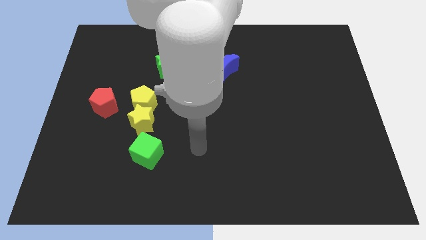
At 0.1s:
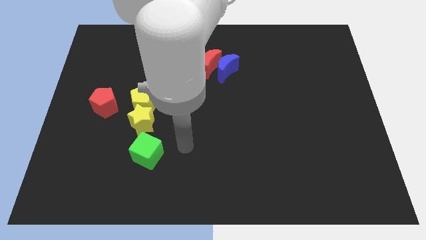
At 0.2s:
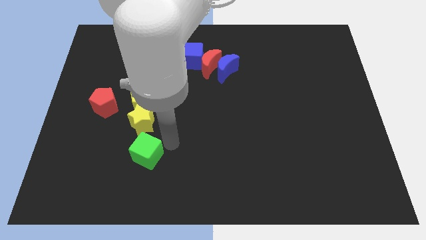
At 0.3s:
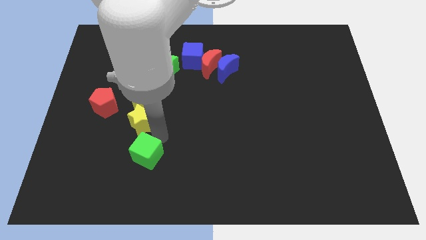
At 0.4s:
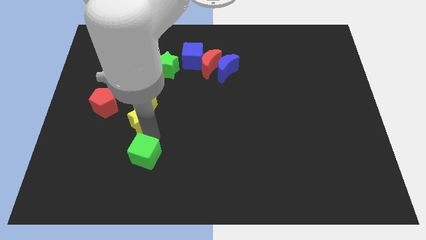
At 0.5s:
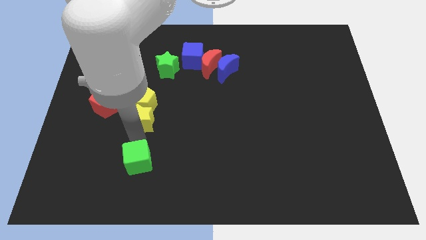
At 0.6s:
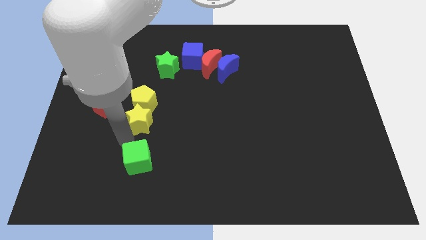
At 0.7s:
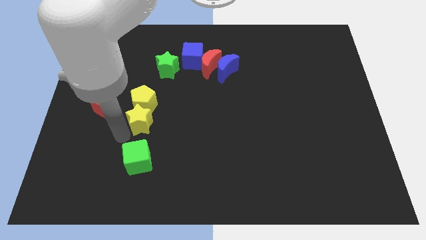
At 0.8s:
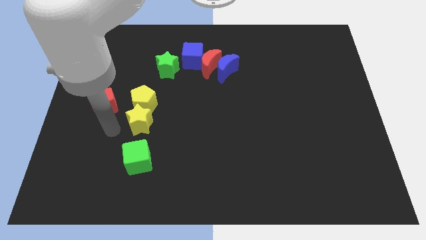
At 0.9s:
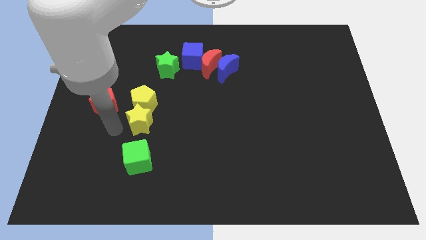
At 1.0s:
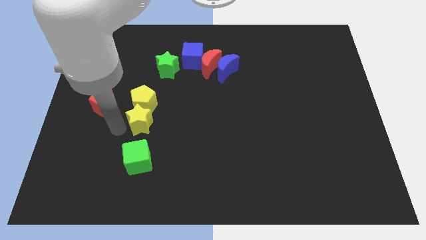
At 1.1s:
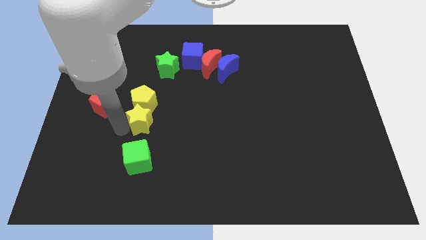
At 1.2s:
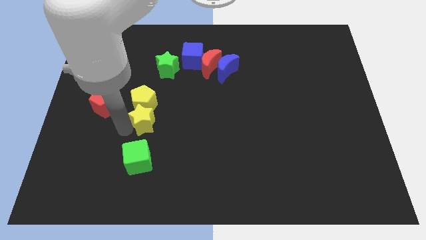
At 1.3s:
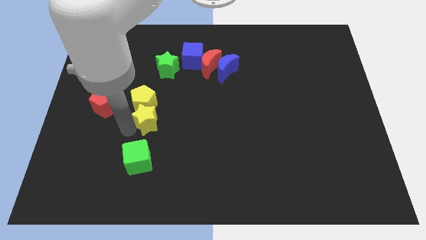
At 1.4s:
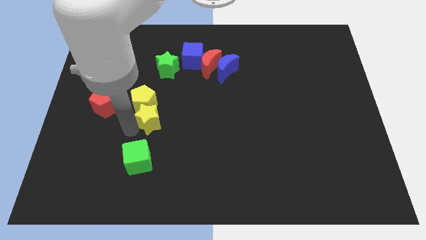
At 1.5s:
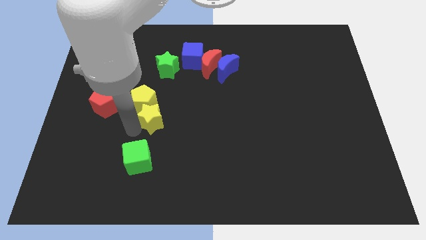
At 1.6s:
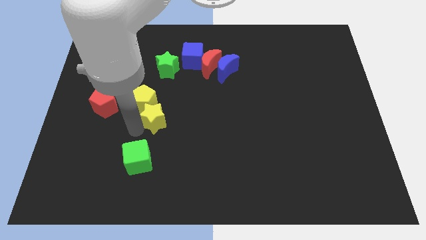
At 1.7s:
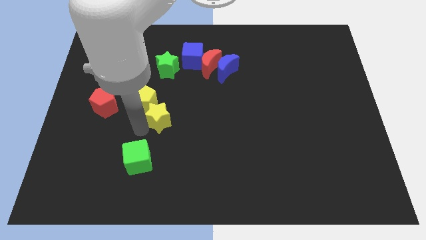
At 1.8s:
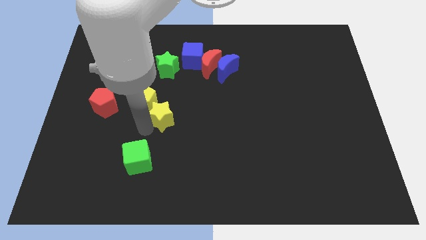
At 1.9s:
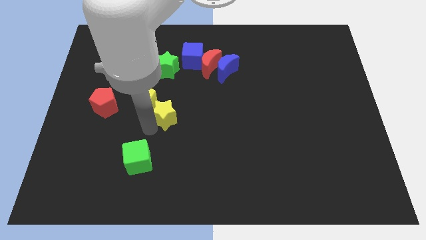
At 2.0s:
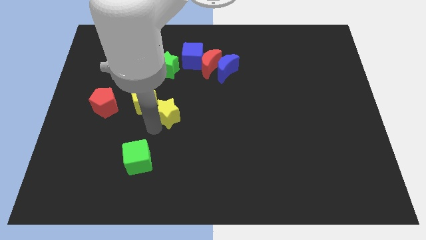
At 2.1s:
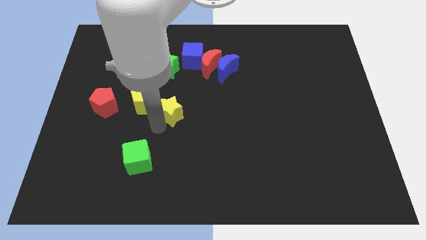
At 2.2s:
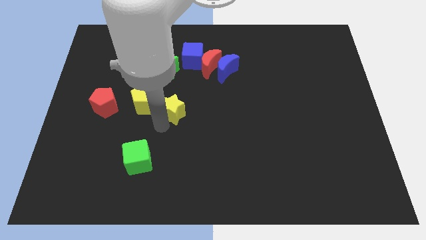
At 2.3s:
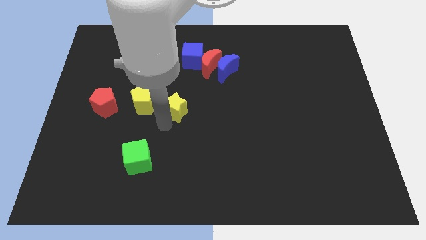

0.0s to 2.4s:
move the yellow star somewhat up and right

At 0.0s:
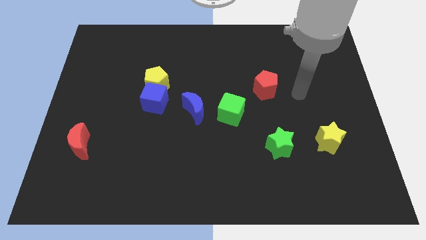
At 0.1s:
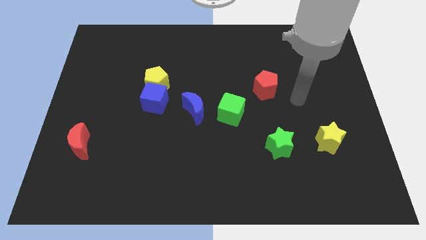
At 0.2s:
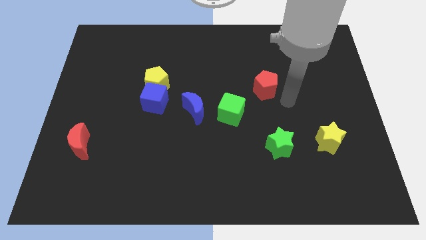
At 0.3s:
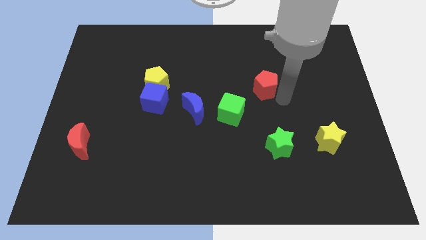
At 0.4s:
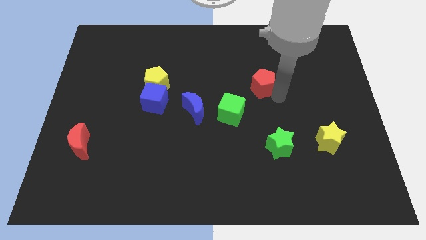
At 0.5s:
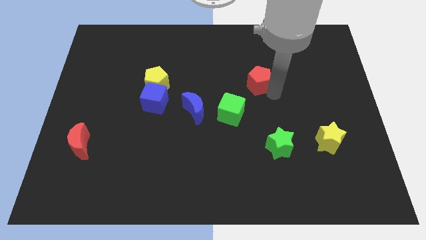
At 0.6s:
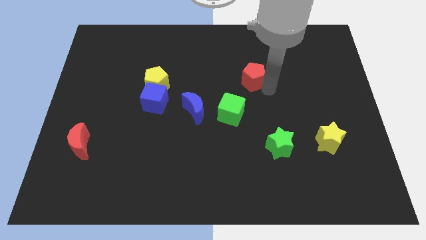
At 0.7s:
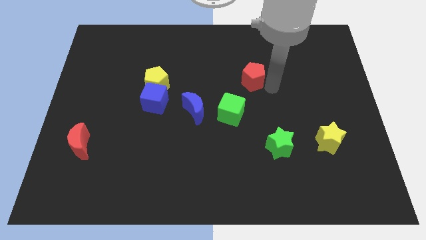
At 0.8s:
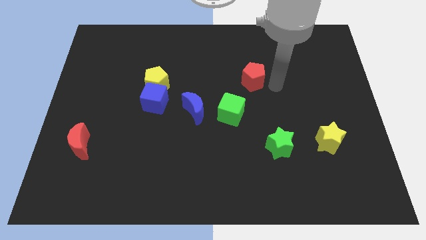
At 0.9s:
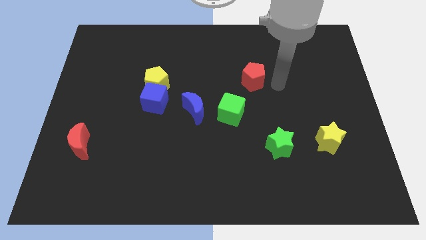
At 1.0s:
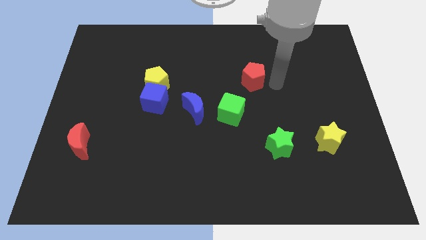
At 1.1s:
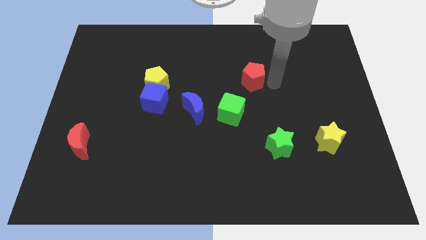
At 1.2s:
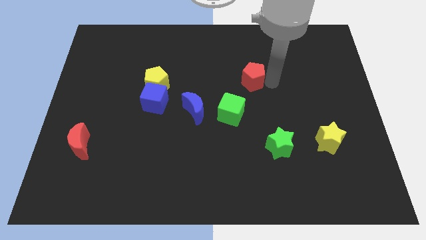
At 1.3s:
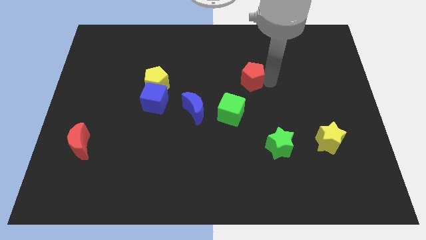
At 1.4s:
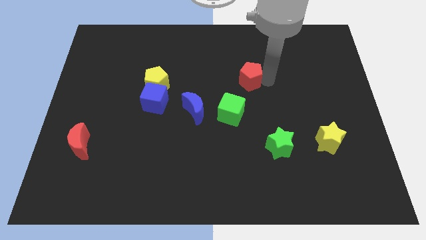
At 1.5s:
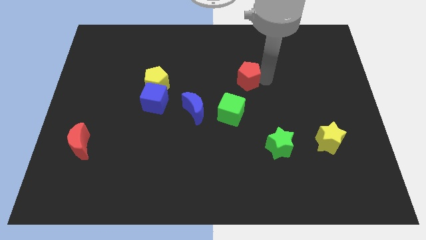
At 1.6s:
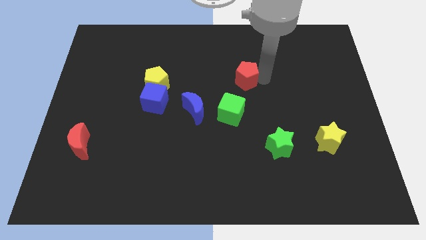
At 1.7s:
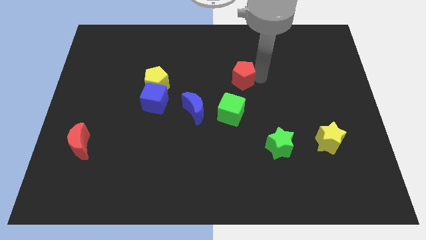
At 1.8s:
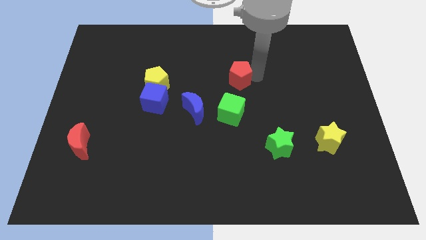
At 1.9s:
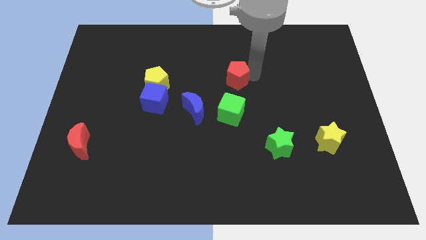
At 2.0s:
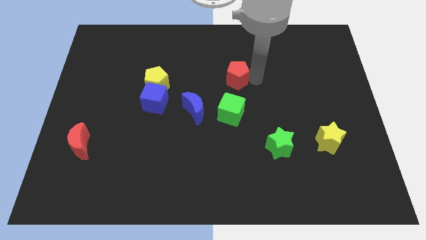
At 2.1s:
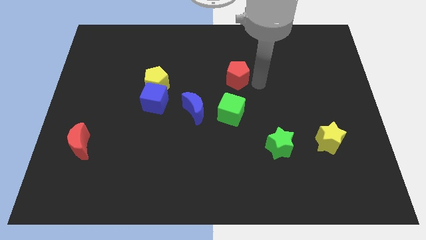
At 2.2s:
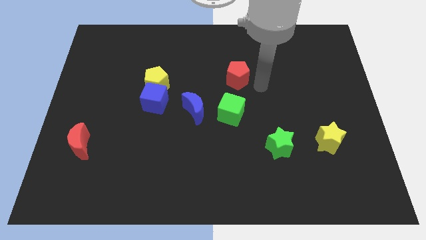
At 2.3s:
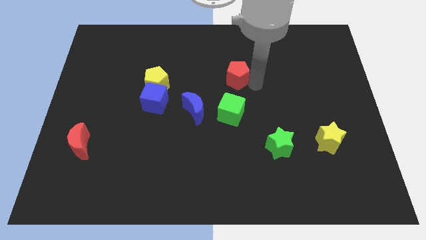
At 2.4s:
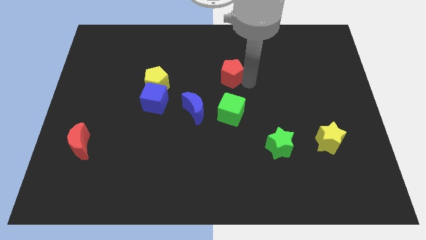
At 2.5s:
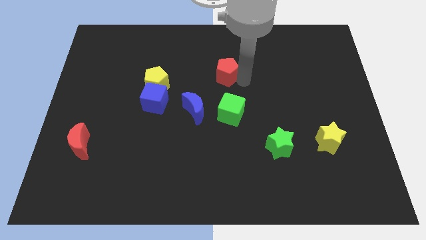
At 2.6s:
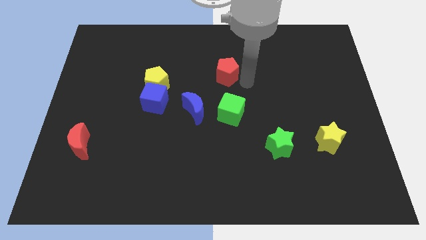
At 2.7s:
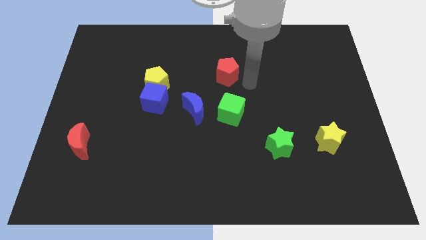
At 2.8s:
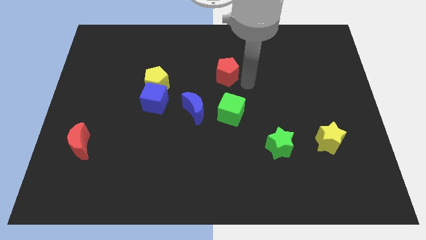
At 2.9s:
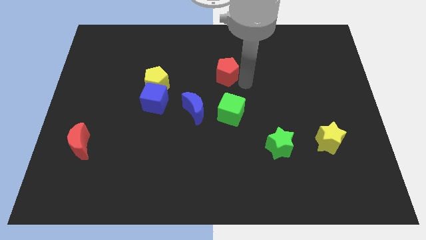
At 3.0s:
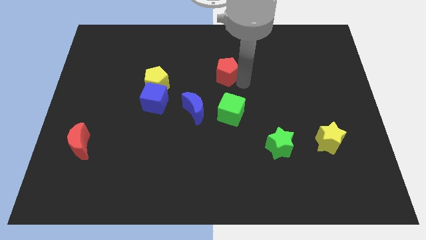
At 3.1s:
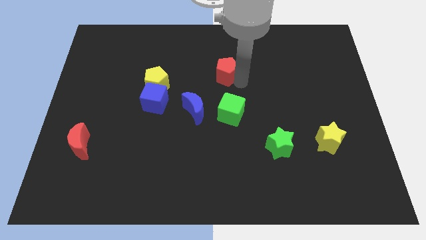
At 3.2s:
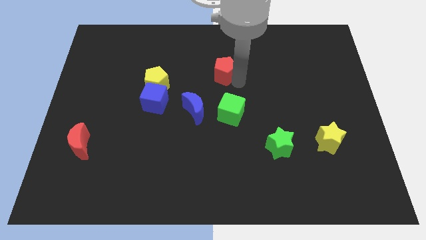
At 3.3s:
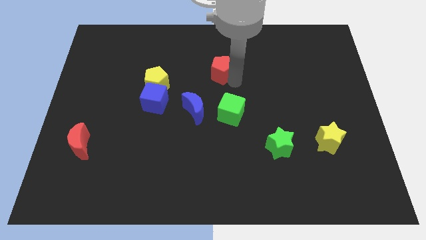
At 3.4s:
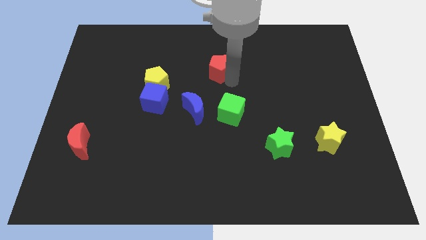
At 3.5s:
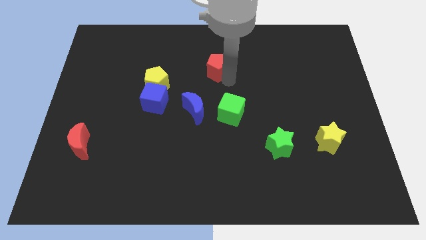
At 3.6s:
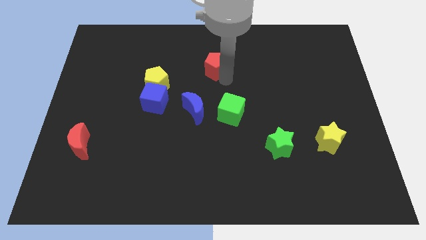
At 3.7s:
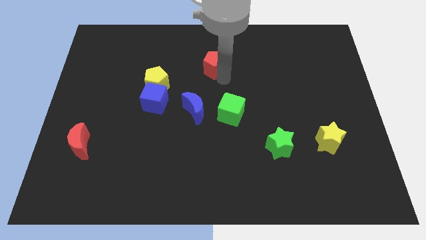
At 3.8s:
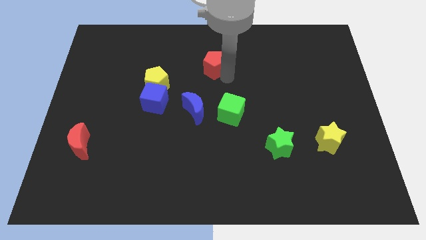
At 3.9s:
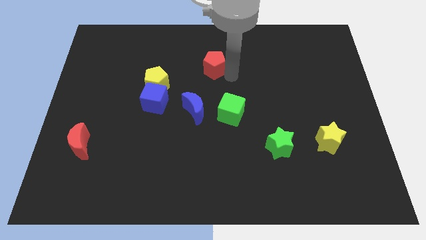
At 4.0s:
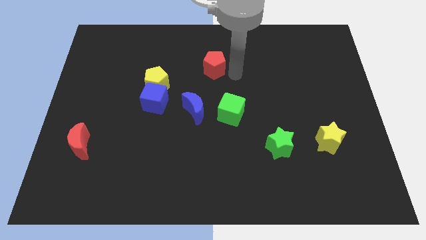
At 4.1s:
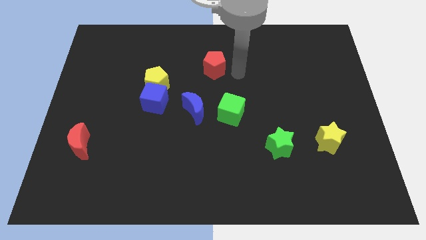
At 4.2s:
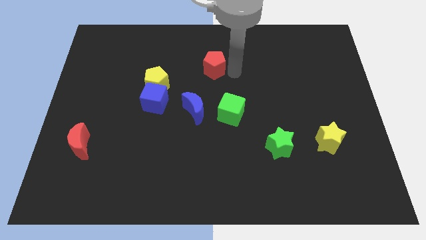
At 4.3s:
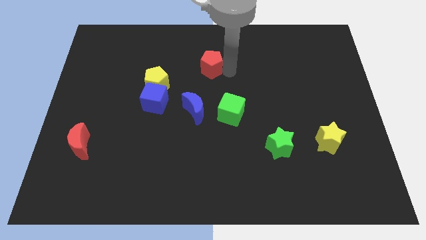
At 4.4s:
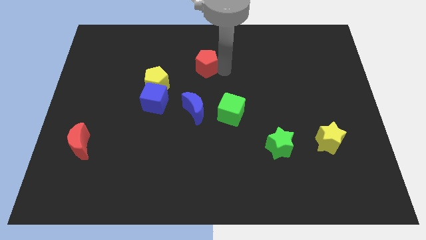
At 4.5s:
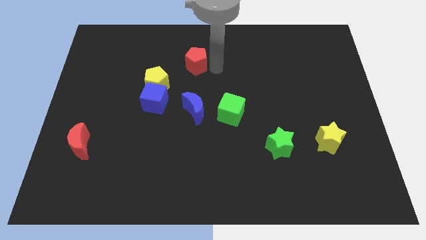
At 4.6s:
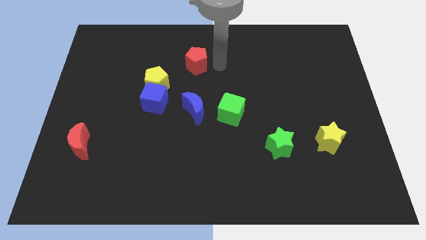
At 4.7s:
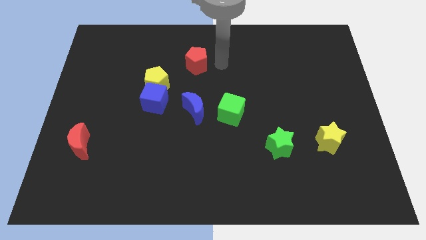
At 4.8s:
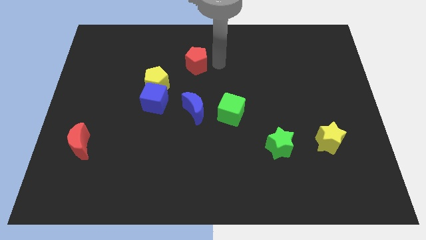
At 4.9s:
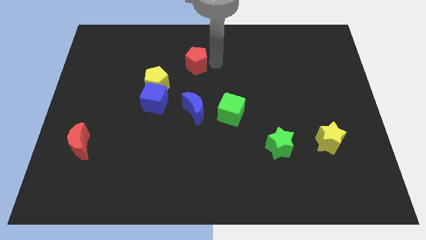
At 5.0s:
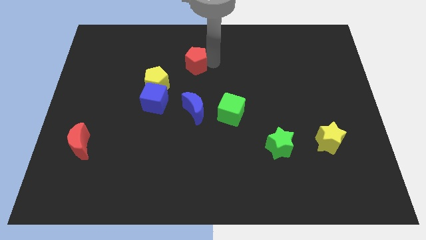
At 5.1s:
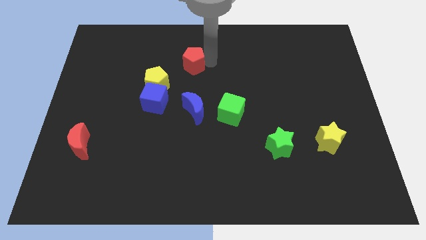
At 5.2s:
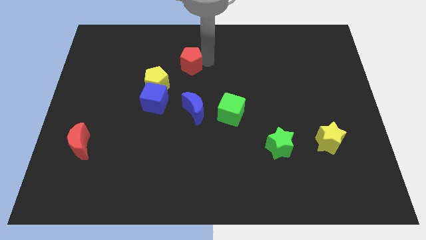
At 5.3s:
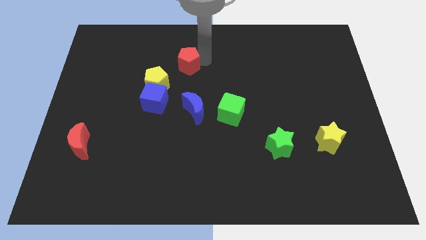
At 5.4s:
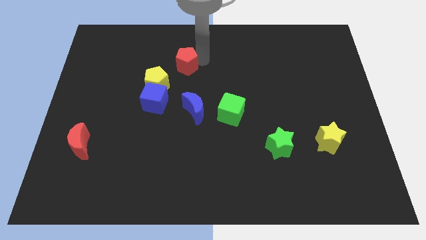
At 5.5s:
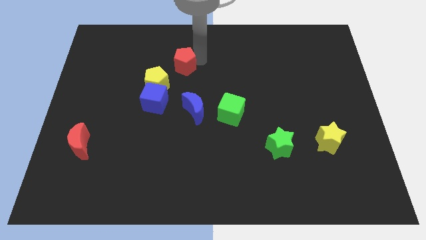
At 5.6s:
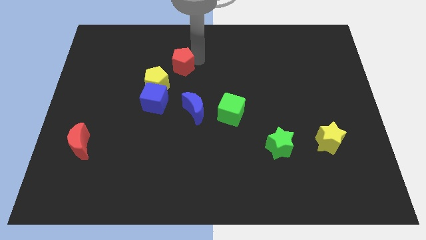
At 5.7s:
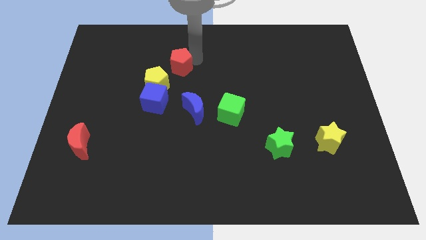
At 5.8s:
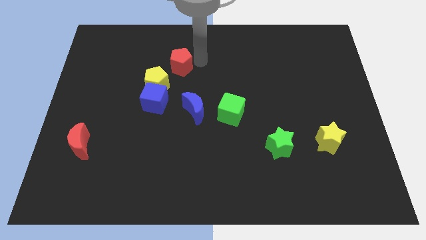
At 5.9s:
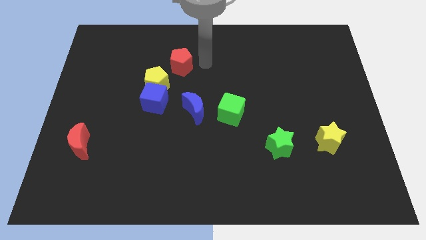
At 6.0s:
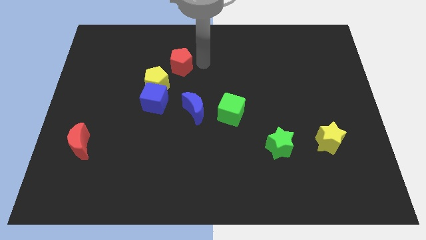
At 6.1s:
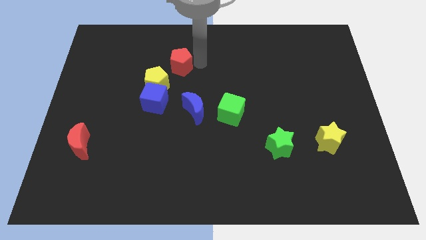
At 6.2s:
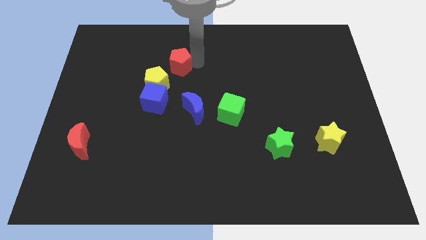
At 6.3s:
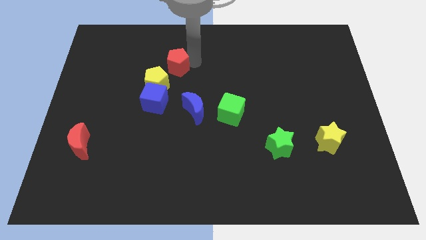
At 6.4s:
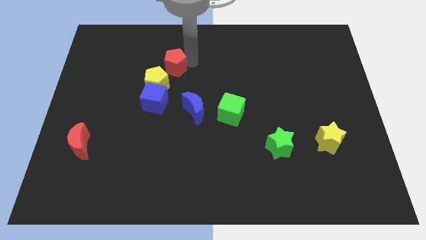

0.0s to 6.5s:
push the red pentagon to the left
